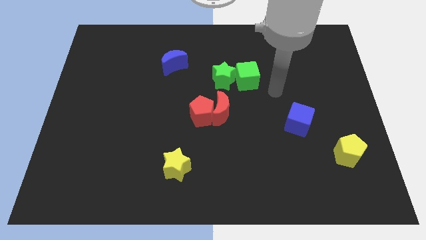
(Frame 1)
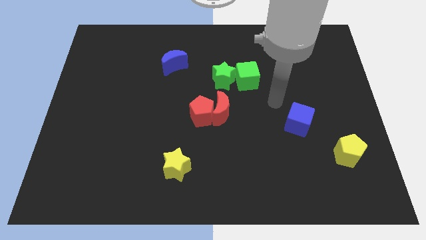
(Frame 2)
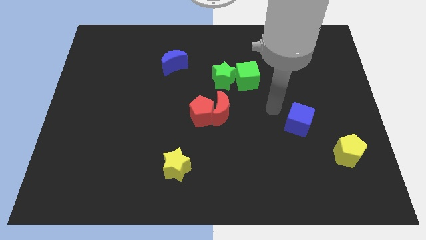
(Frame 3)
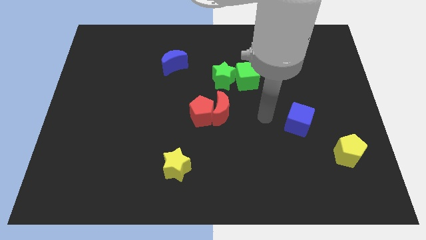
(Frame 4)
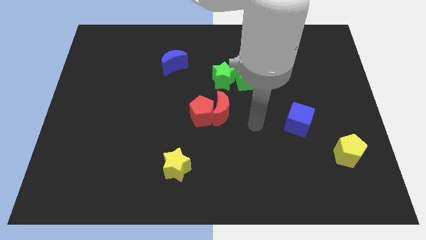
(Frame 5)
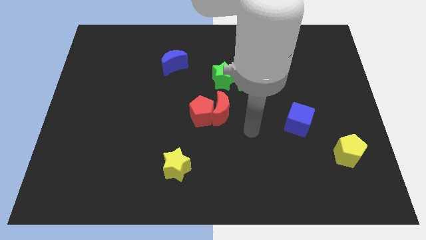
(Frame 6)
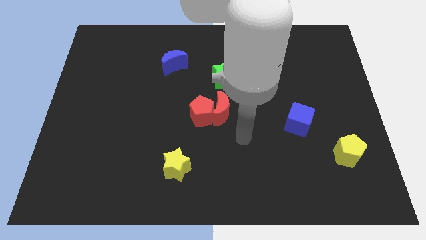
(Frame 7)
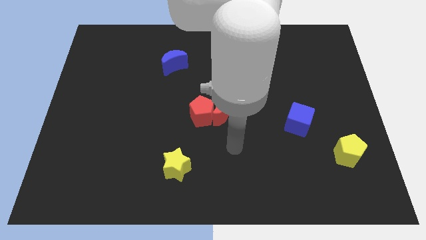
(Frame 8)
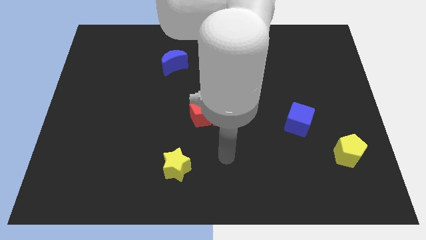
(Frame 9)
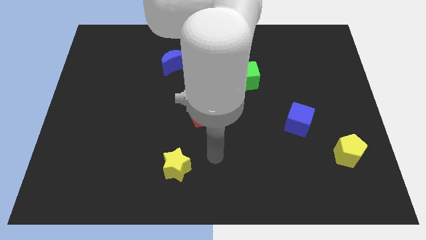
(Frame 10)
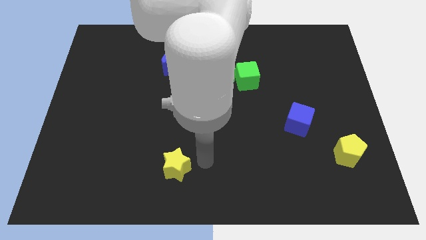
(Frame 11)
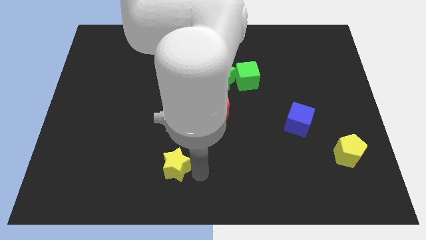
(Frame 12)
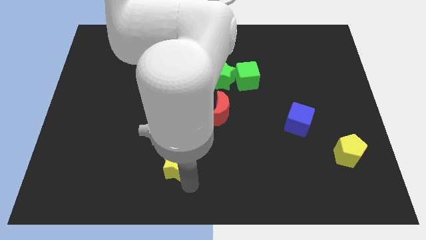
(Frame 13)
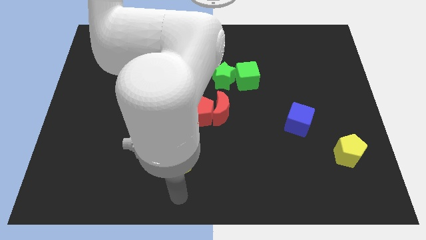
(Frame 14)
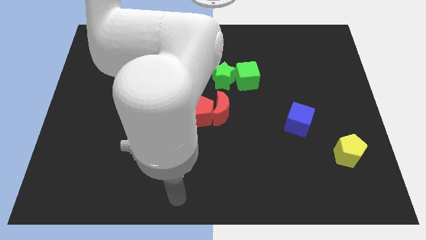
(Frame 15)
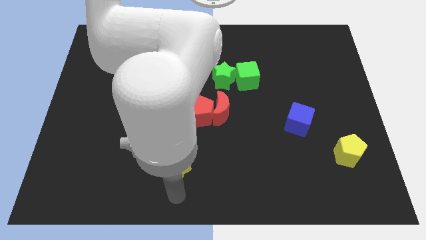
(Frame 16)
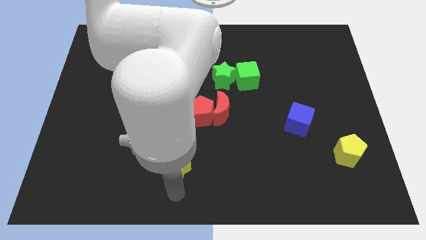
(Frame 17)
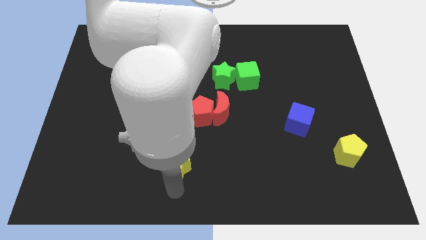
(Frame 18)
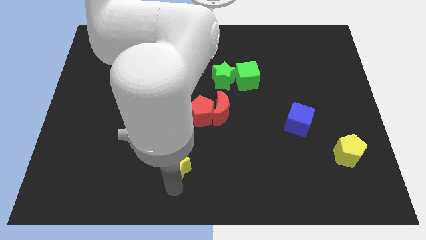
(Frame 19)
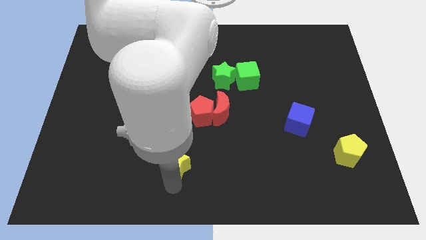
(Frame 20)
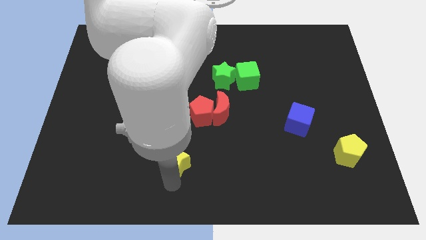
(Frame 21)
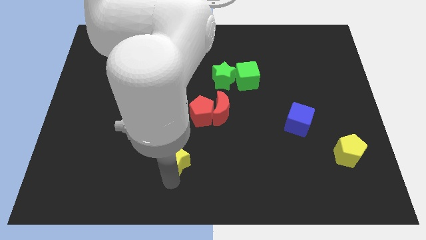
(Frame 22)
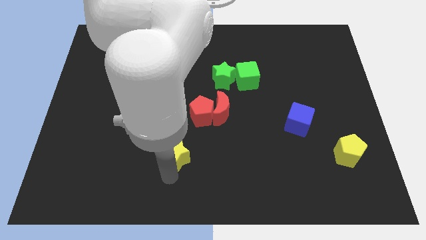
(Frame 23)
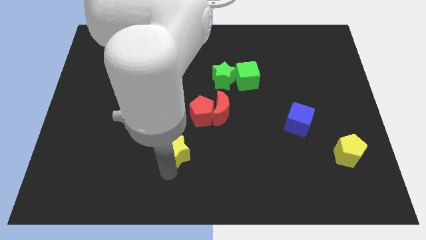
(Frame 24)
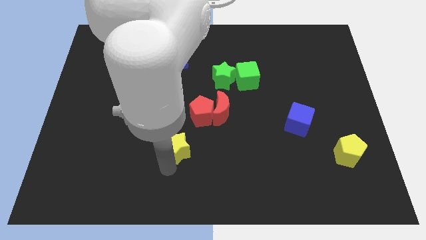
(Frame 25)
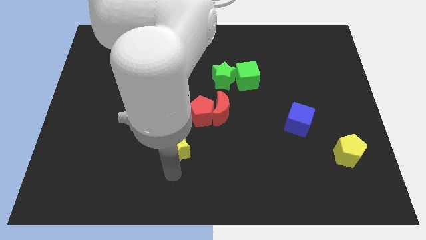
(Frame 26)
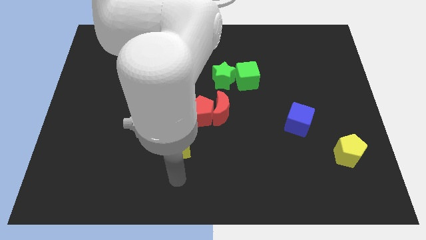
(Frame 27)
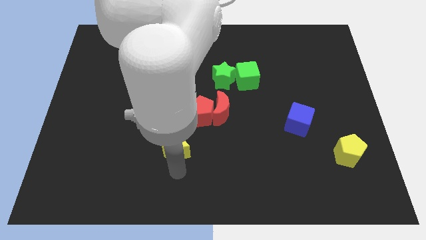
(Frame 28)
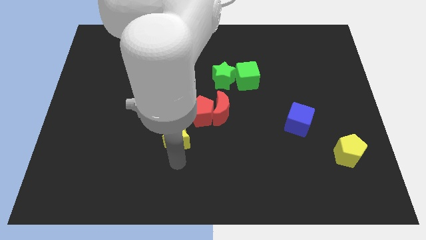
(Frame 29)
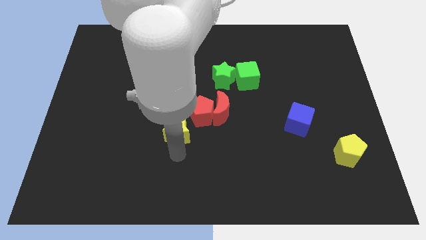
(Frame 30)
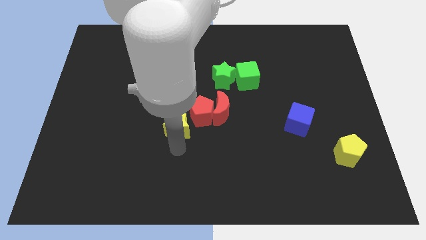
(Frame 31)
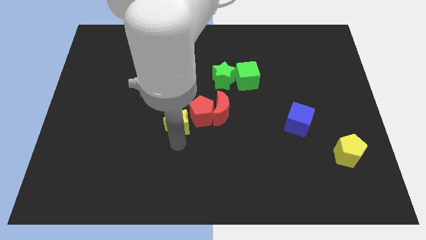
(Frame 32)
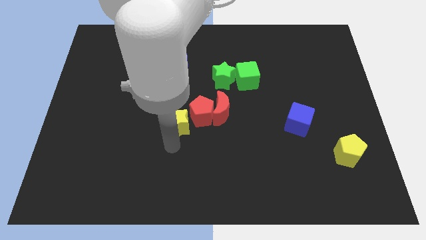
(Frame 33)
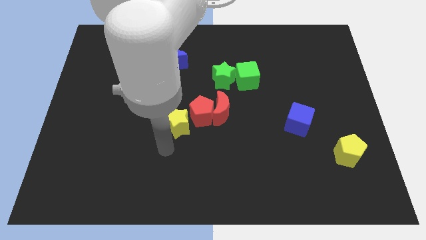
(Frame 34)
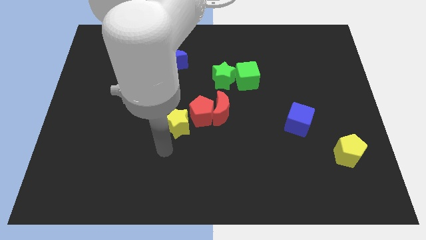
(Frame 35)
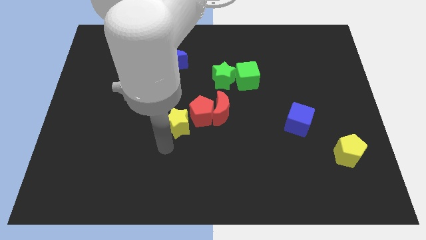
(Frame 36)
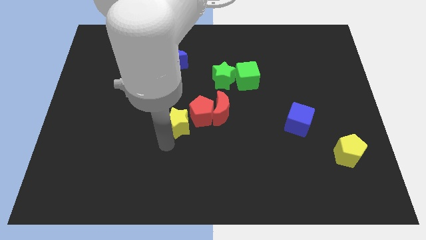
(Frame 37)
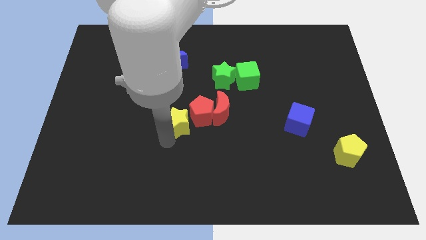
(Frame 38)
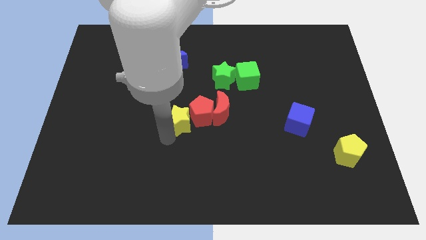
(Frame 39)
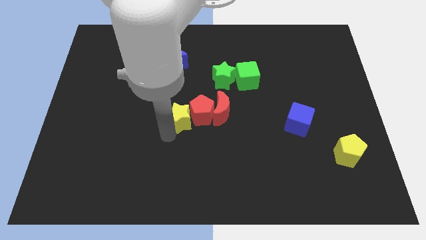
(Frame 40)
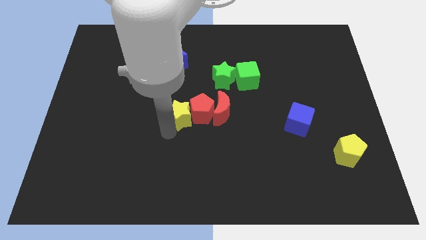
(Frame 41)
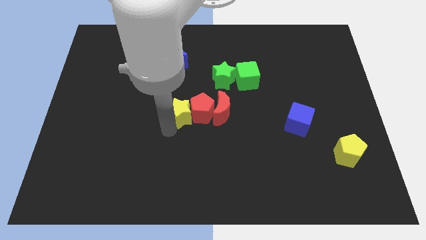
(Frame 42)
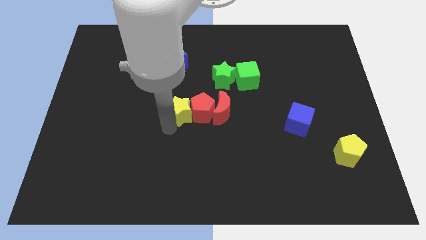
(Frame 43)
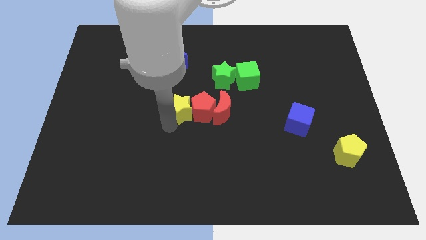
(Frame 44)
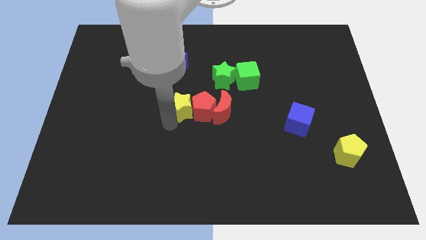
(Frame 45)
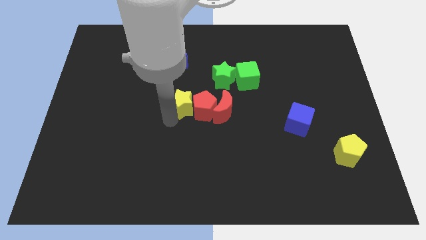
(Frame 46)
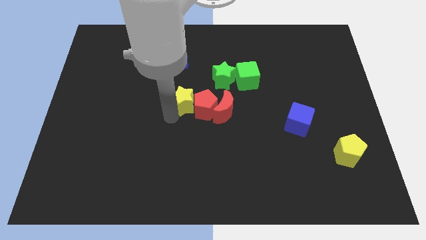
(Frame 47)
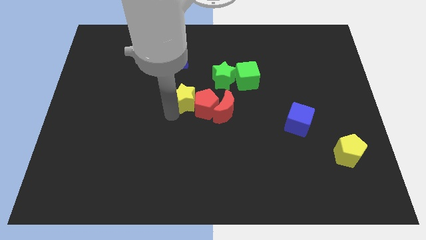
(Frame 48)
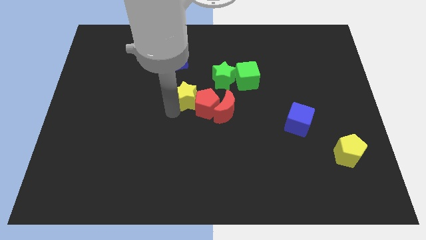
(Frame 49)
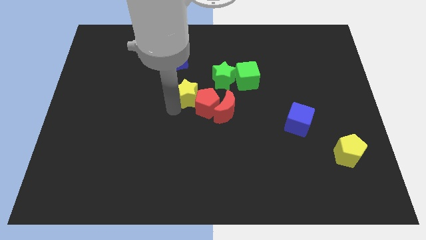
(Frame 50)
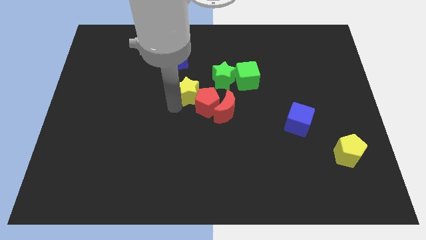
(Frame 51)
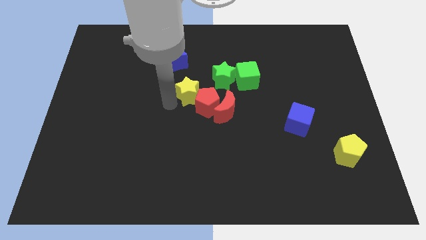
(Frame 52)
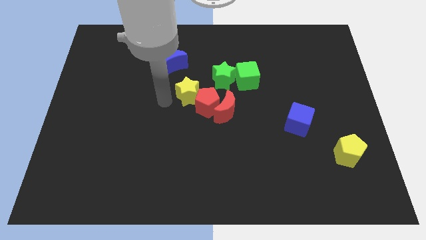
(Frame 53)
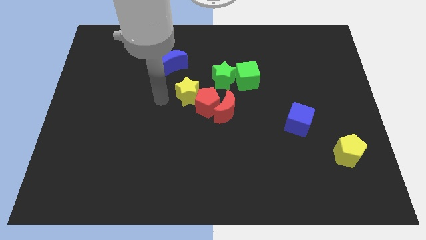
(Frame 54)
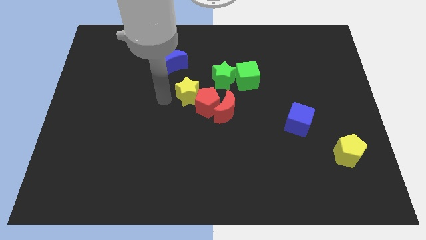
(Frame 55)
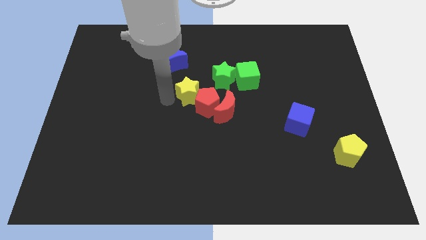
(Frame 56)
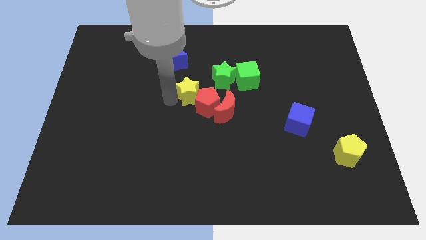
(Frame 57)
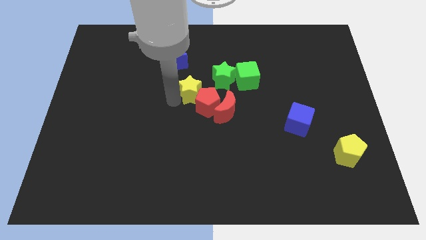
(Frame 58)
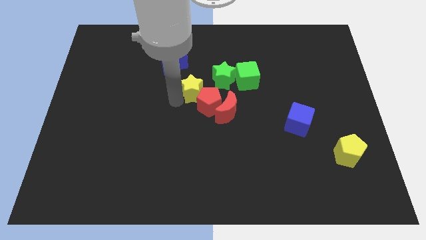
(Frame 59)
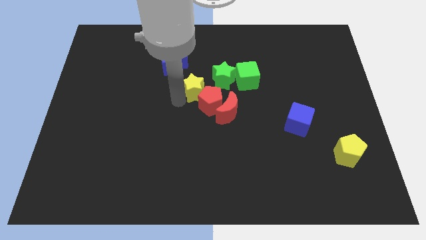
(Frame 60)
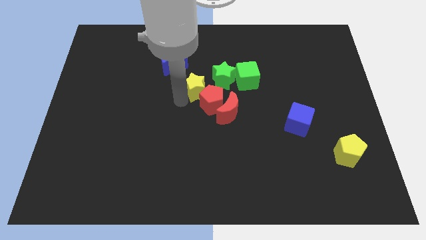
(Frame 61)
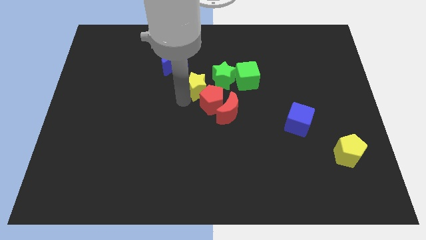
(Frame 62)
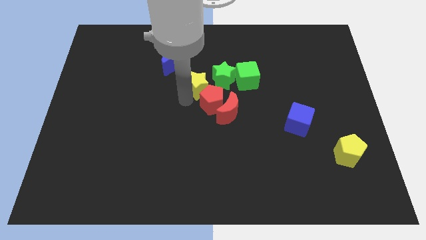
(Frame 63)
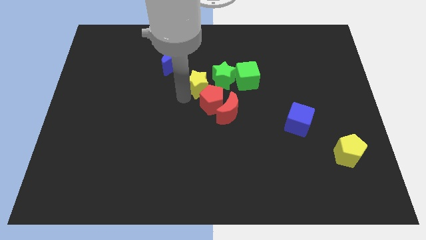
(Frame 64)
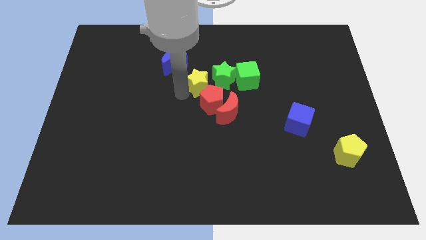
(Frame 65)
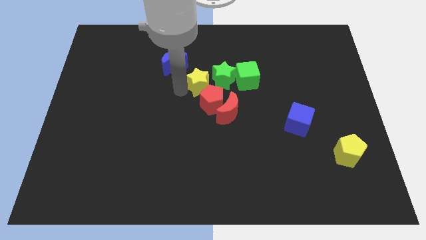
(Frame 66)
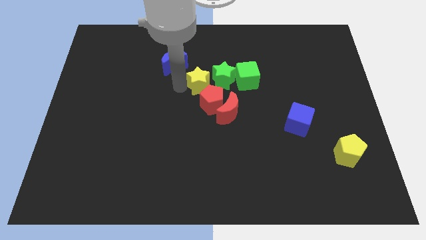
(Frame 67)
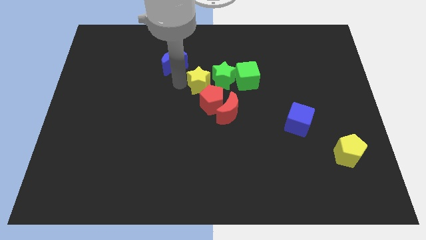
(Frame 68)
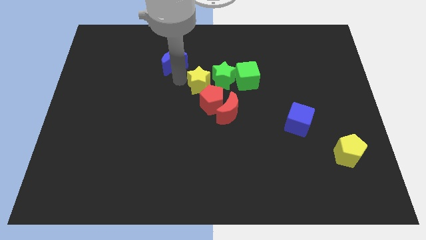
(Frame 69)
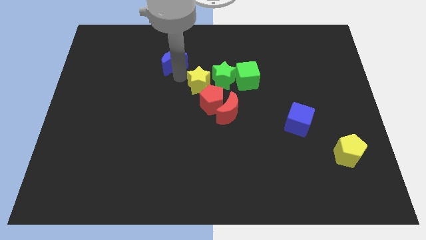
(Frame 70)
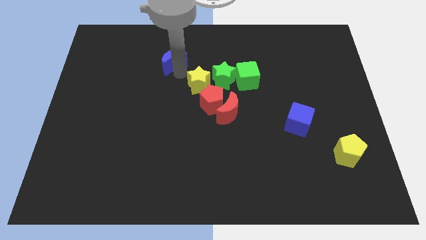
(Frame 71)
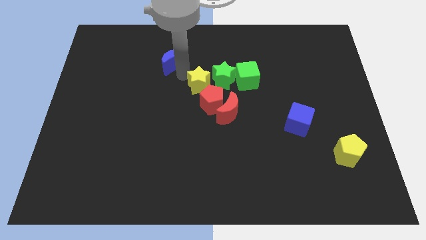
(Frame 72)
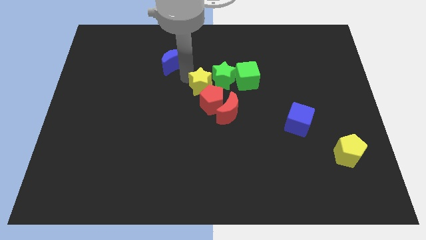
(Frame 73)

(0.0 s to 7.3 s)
move the yellow star to the green star

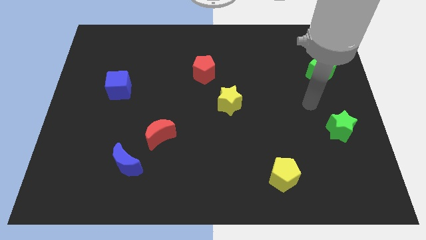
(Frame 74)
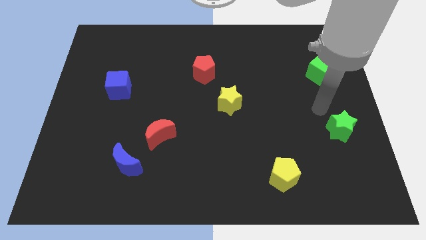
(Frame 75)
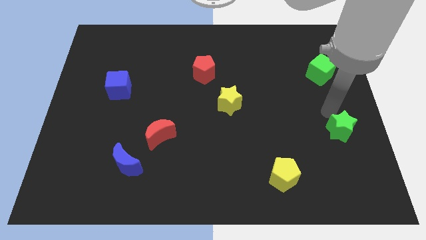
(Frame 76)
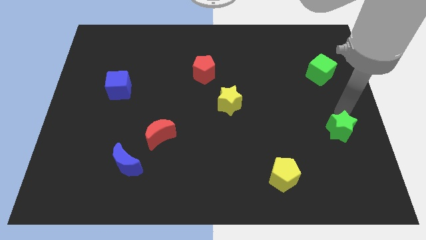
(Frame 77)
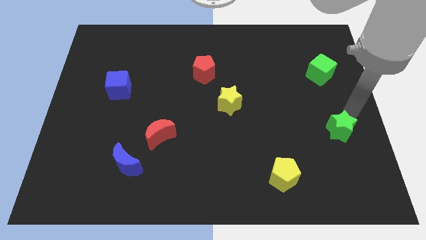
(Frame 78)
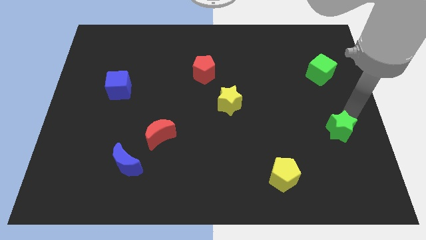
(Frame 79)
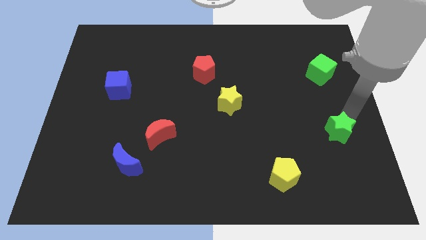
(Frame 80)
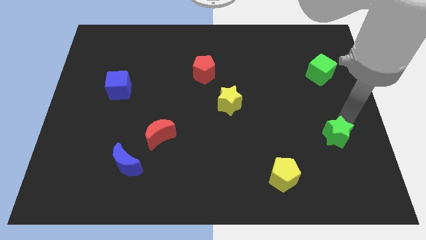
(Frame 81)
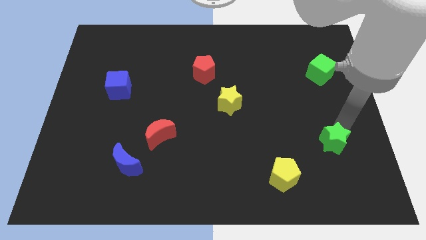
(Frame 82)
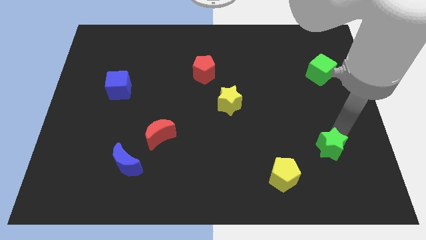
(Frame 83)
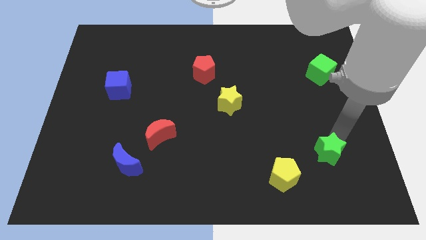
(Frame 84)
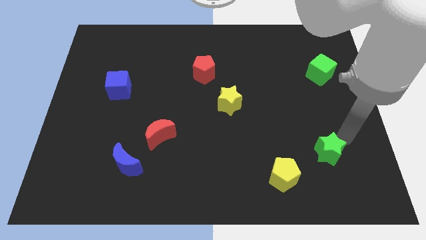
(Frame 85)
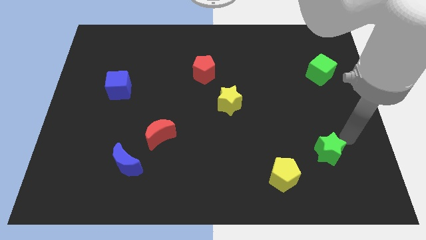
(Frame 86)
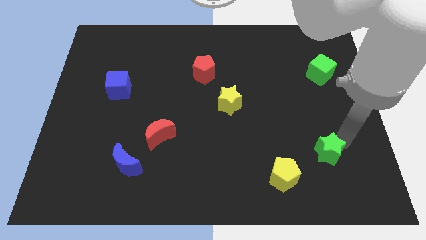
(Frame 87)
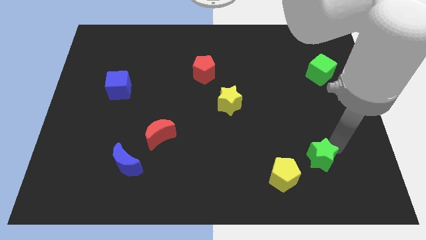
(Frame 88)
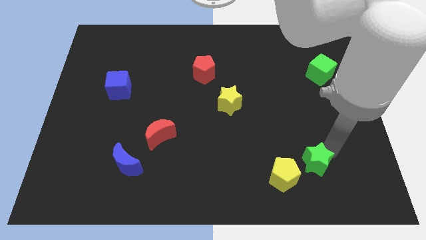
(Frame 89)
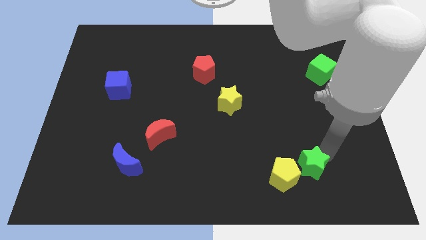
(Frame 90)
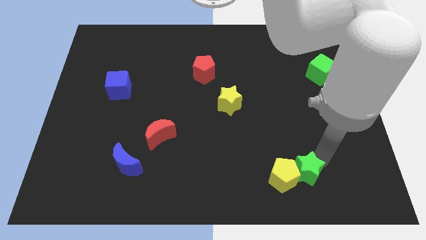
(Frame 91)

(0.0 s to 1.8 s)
slide the green star close to the yellow pentagon
